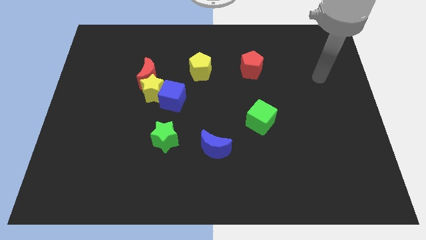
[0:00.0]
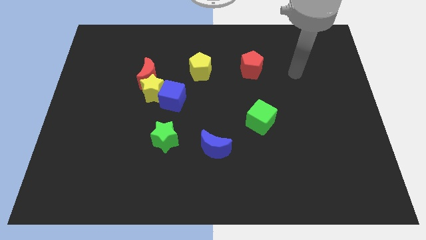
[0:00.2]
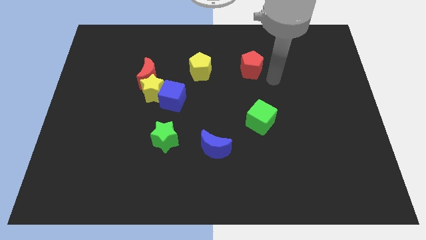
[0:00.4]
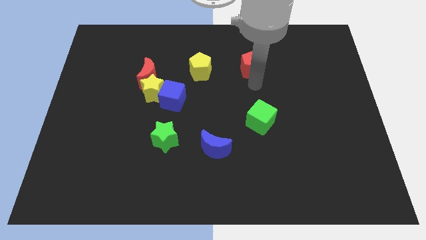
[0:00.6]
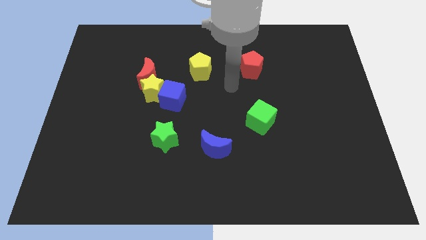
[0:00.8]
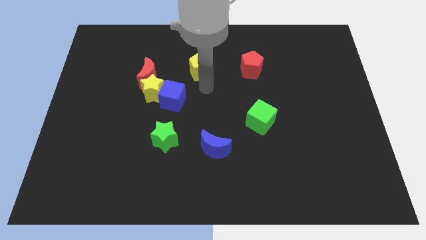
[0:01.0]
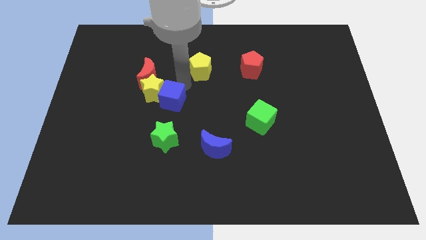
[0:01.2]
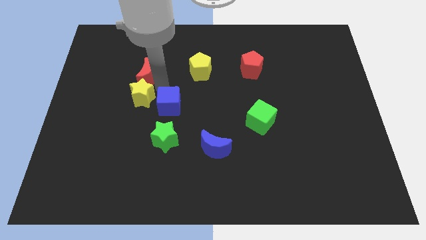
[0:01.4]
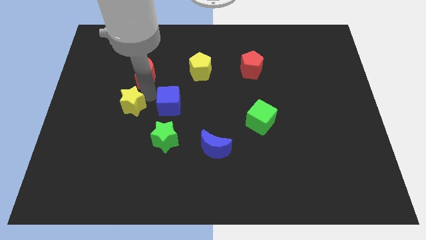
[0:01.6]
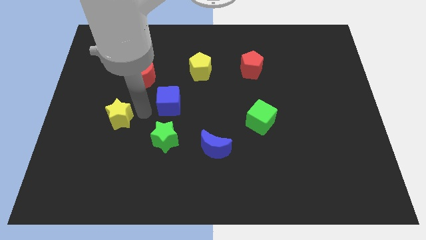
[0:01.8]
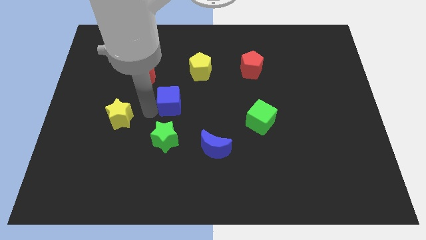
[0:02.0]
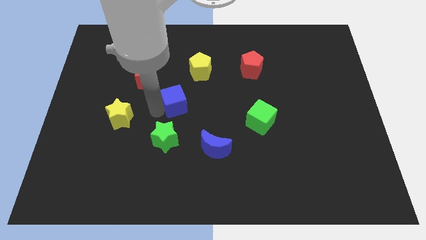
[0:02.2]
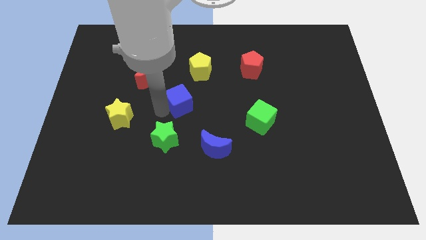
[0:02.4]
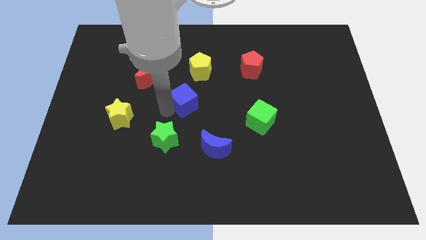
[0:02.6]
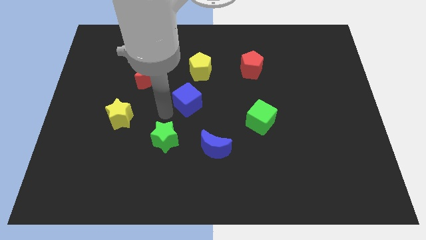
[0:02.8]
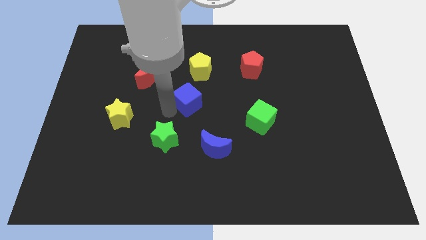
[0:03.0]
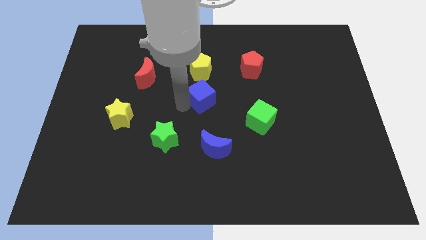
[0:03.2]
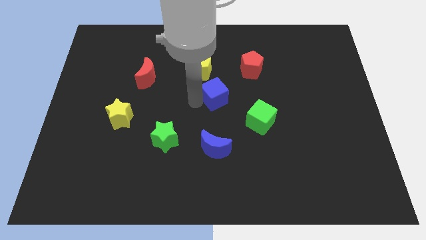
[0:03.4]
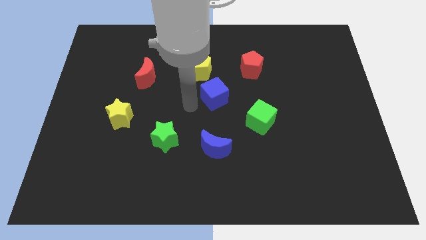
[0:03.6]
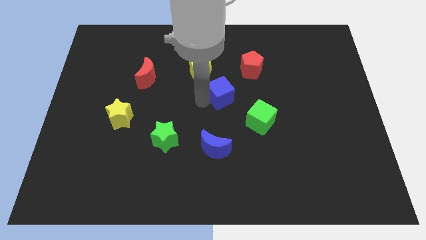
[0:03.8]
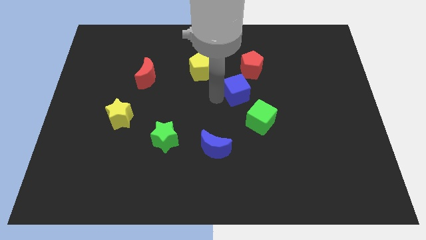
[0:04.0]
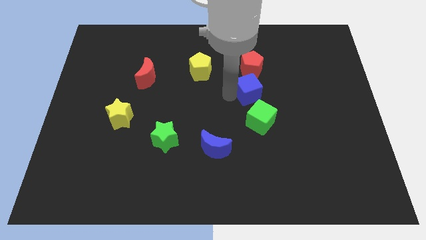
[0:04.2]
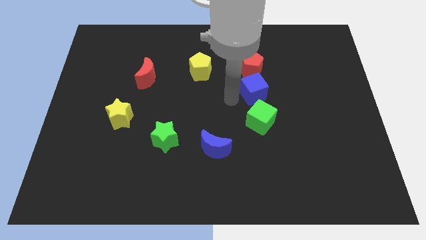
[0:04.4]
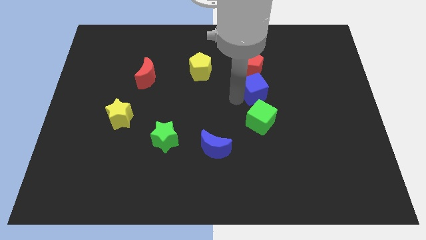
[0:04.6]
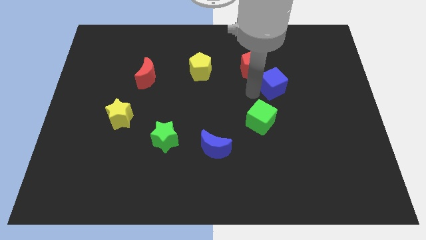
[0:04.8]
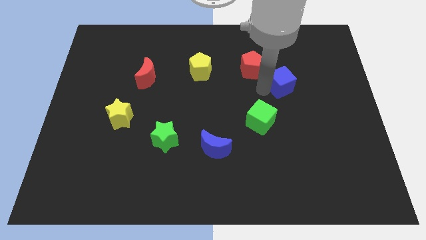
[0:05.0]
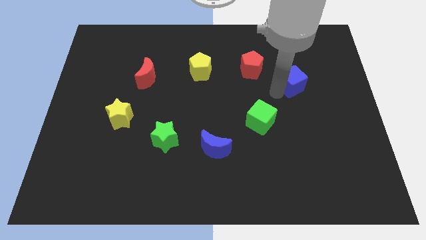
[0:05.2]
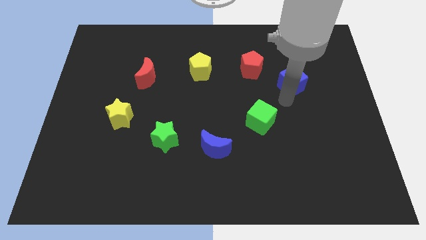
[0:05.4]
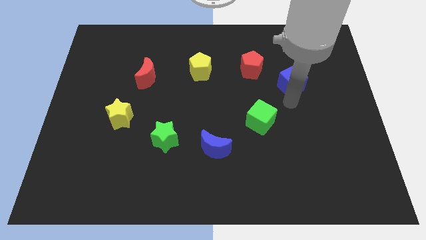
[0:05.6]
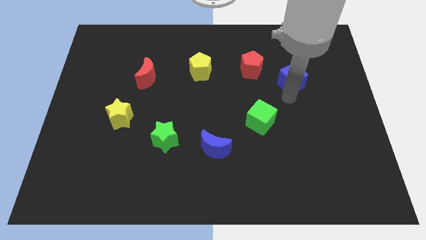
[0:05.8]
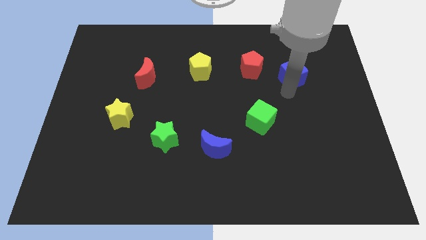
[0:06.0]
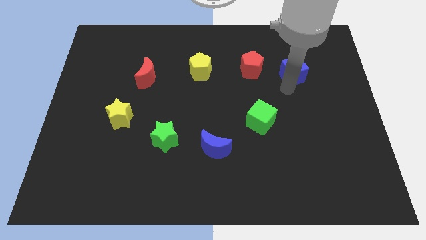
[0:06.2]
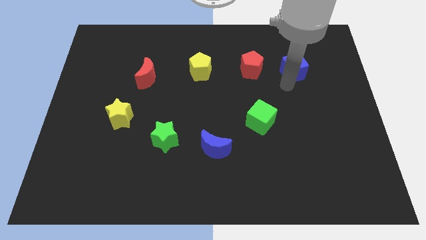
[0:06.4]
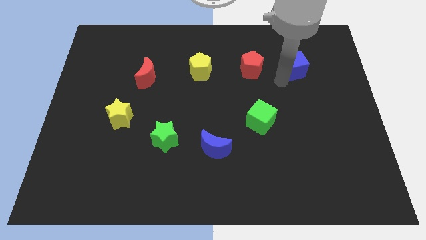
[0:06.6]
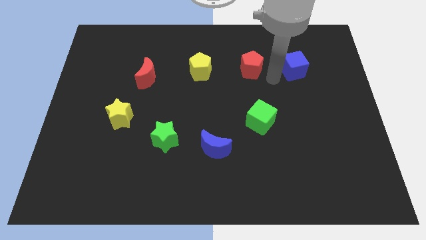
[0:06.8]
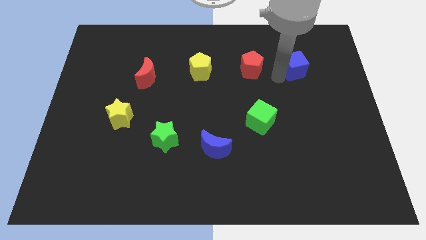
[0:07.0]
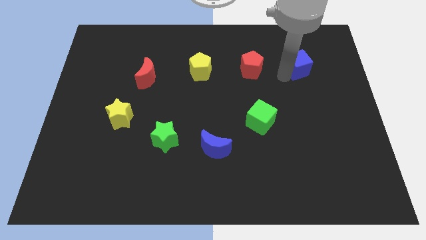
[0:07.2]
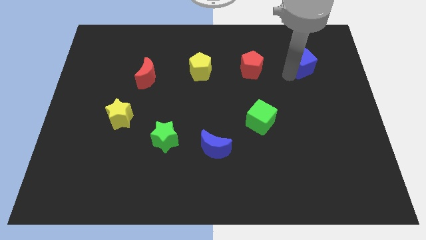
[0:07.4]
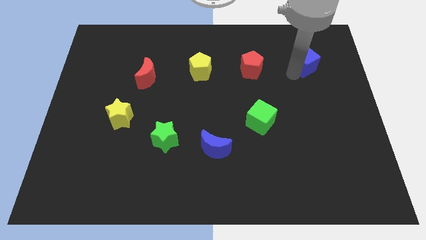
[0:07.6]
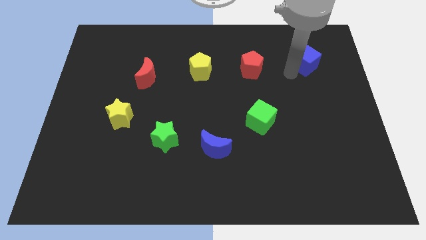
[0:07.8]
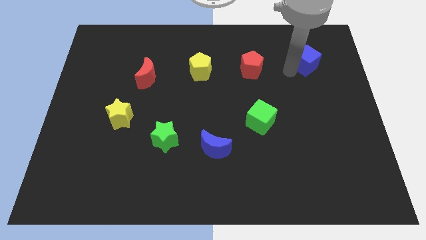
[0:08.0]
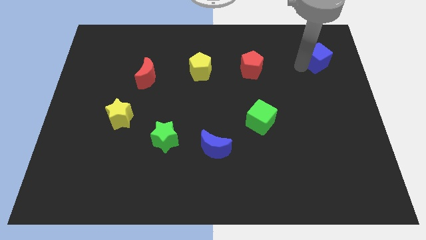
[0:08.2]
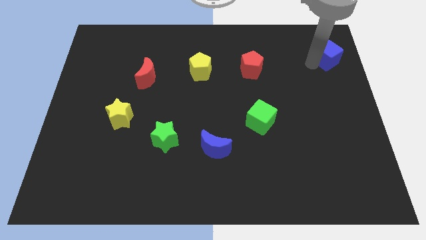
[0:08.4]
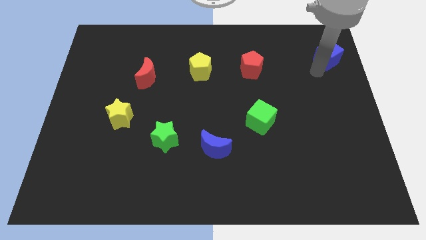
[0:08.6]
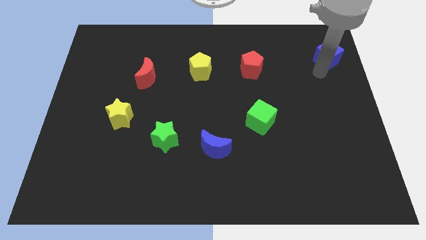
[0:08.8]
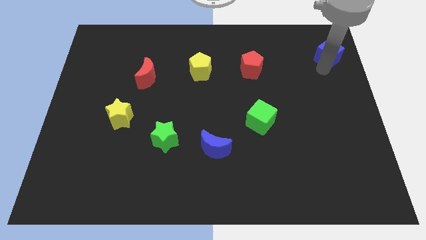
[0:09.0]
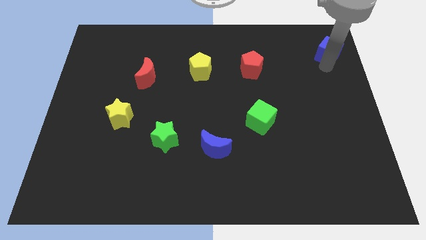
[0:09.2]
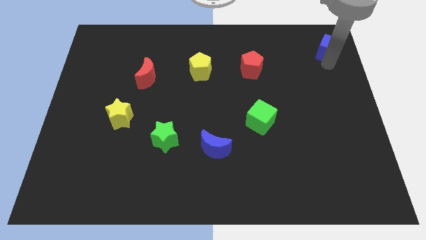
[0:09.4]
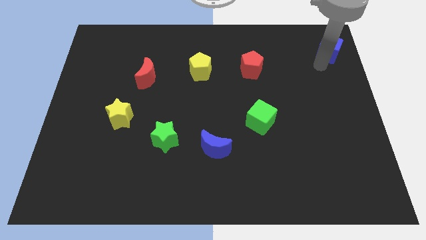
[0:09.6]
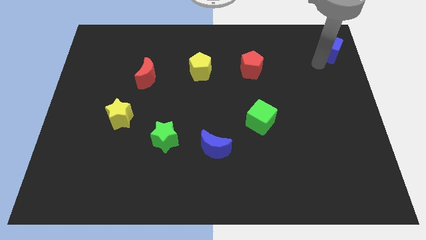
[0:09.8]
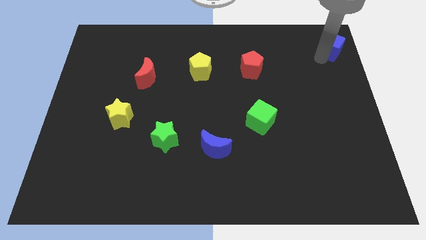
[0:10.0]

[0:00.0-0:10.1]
slide the blue cube to the top right
